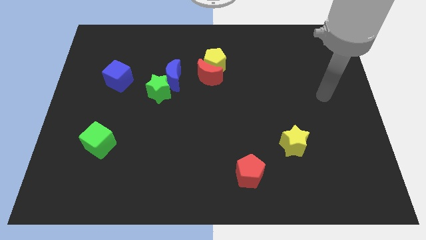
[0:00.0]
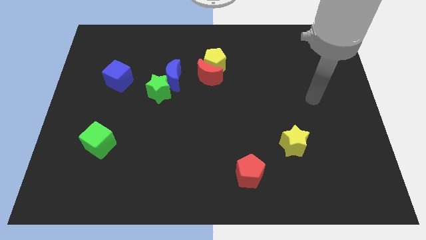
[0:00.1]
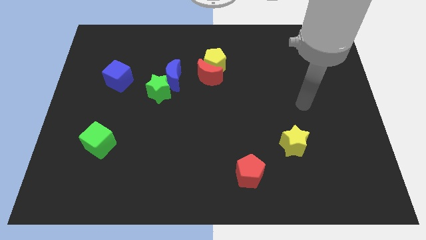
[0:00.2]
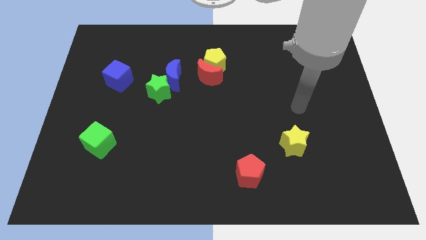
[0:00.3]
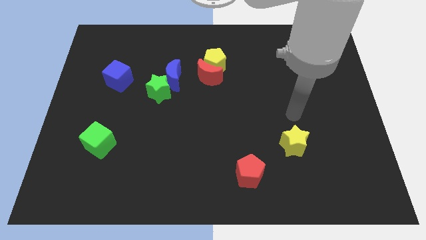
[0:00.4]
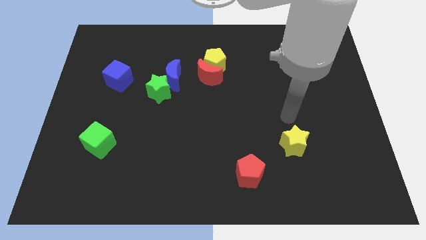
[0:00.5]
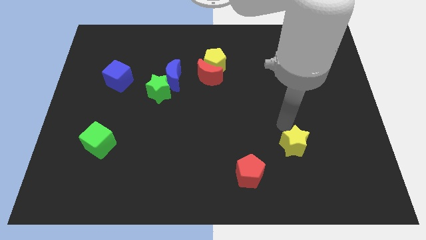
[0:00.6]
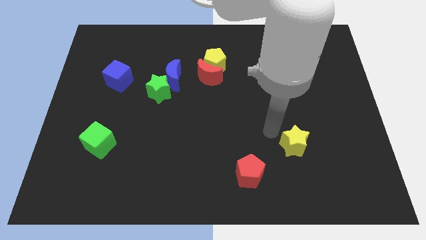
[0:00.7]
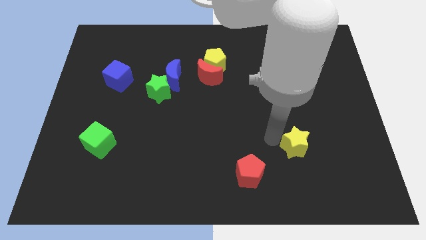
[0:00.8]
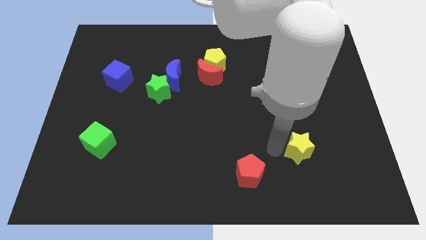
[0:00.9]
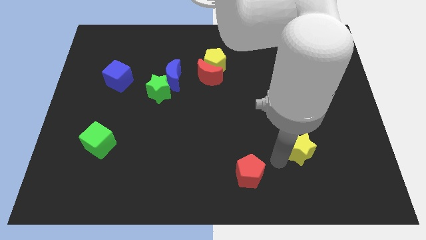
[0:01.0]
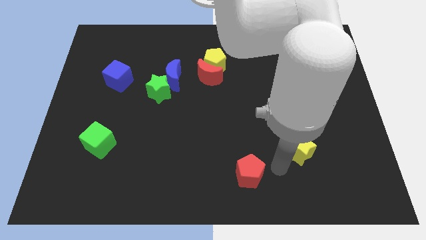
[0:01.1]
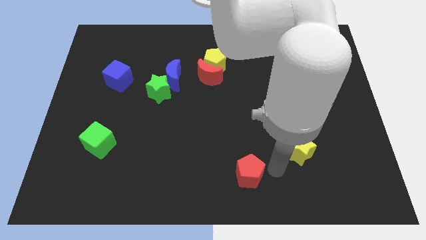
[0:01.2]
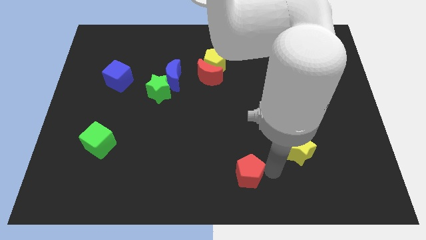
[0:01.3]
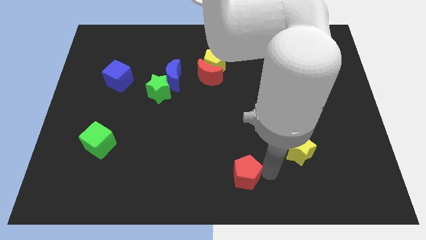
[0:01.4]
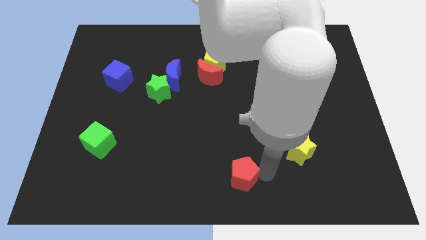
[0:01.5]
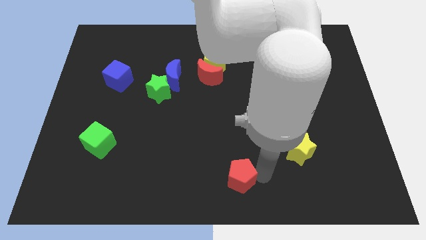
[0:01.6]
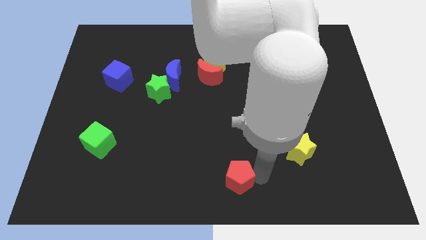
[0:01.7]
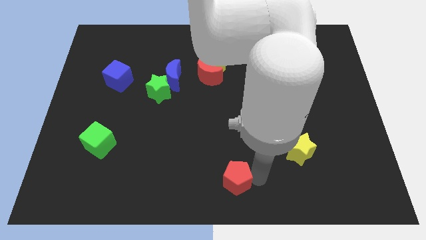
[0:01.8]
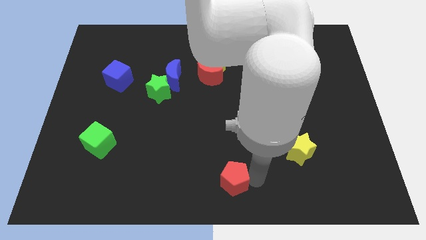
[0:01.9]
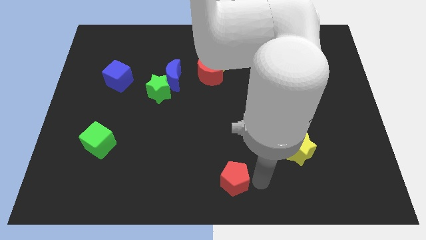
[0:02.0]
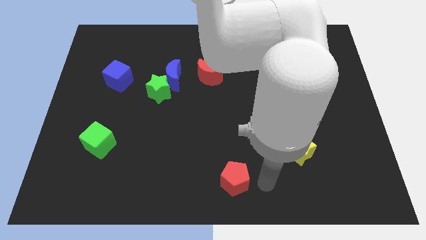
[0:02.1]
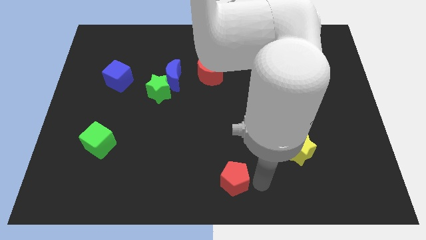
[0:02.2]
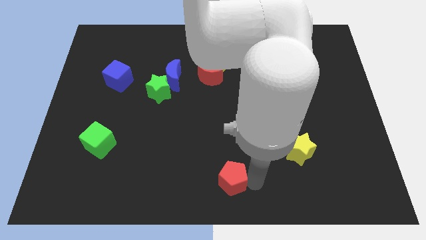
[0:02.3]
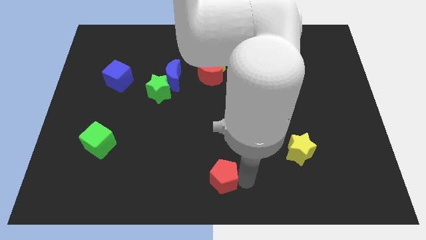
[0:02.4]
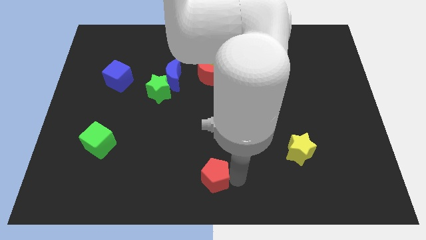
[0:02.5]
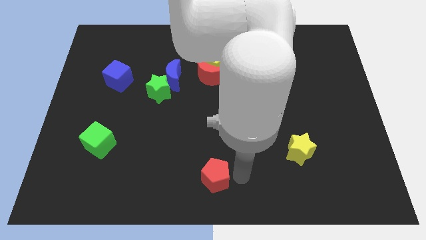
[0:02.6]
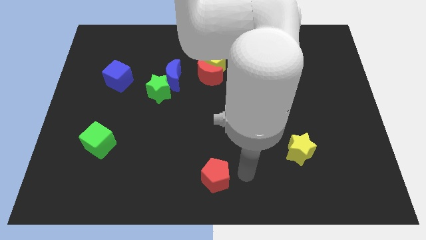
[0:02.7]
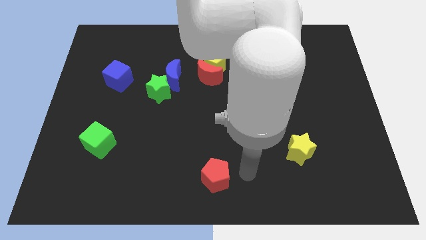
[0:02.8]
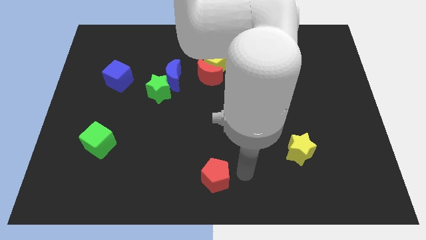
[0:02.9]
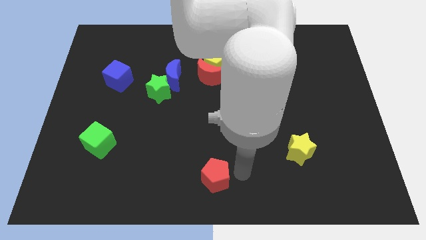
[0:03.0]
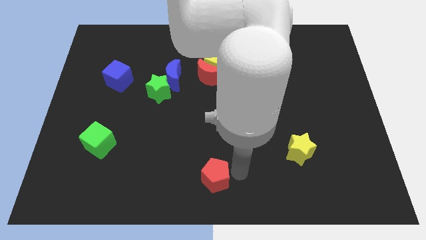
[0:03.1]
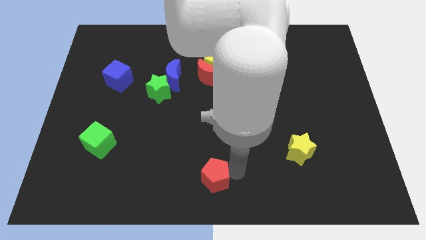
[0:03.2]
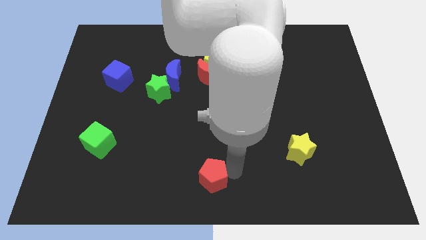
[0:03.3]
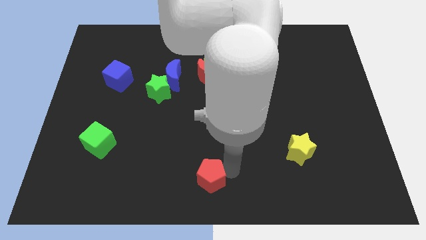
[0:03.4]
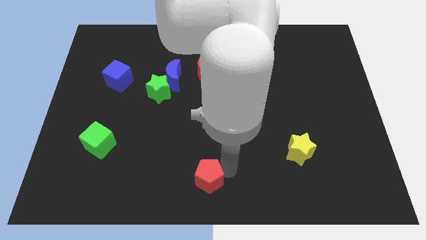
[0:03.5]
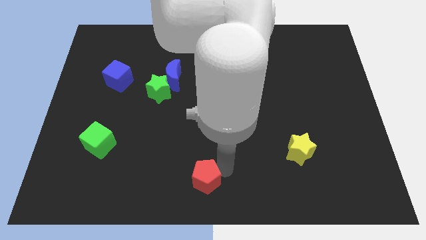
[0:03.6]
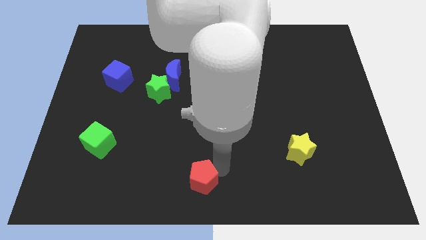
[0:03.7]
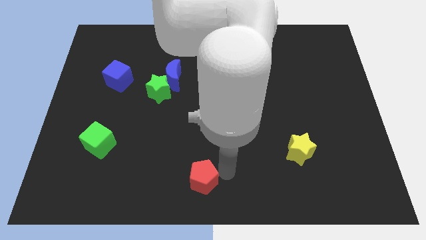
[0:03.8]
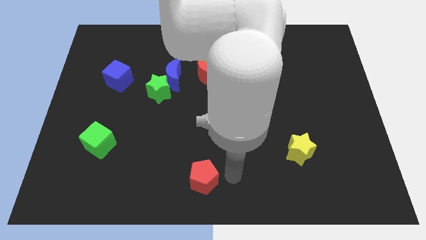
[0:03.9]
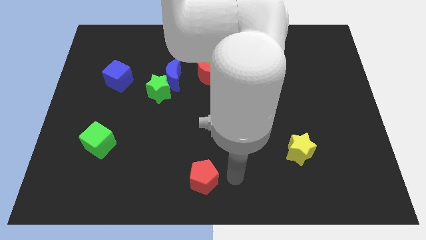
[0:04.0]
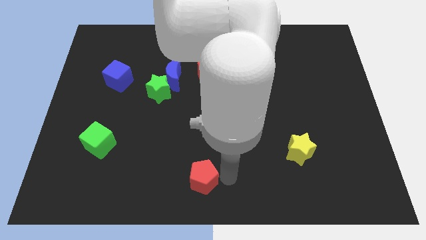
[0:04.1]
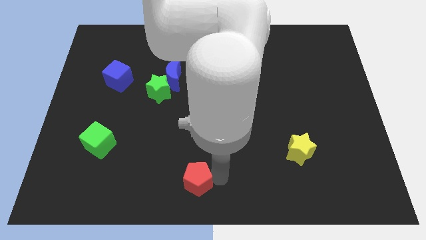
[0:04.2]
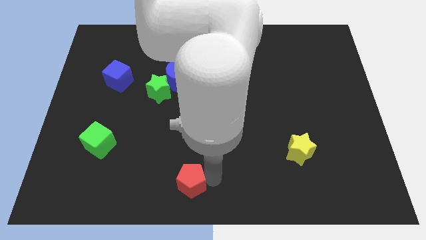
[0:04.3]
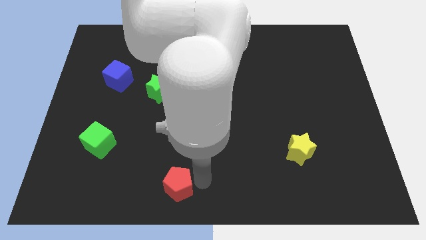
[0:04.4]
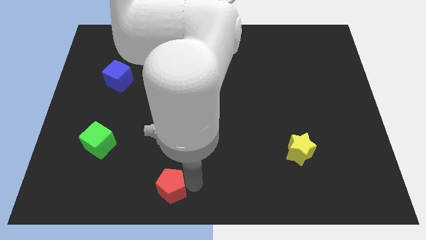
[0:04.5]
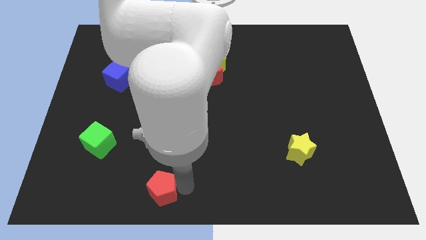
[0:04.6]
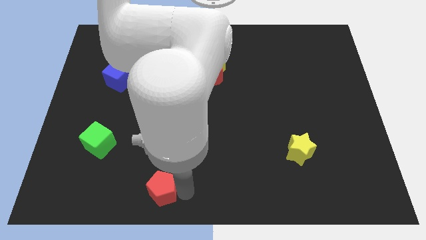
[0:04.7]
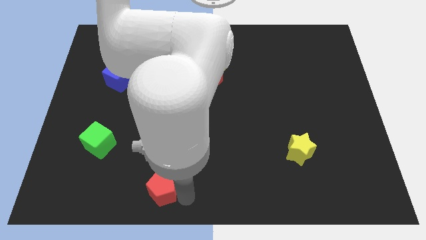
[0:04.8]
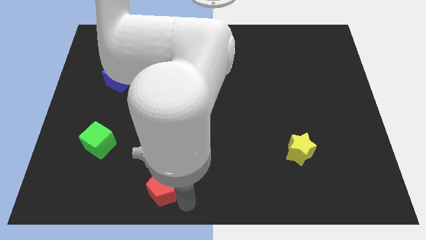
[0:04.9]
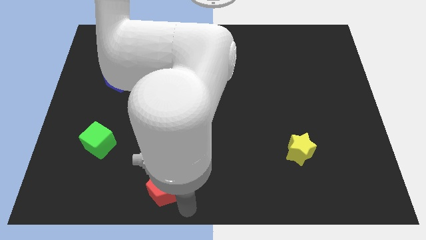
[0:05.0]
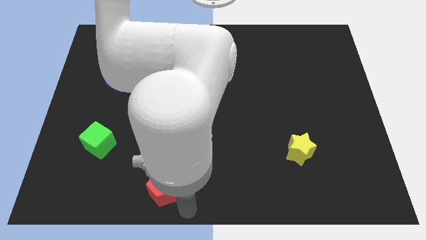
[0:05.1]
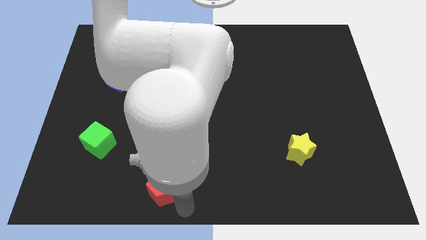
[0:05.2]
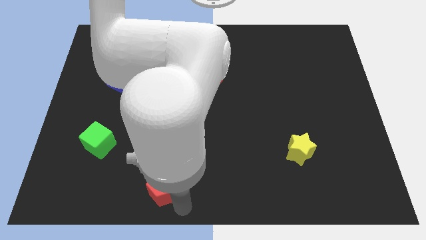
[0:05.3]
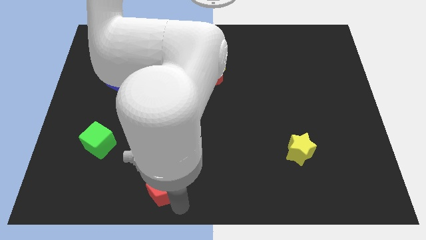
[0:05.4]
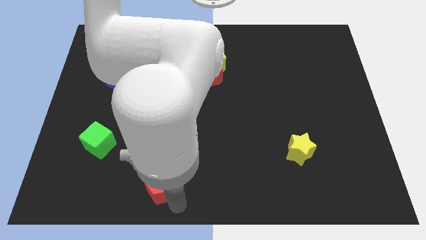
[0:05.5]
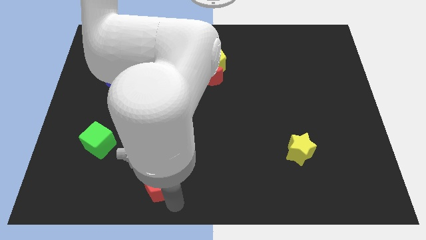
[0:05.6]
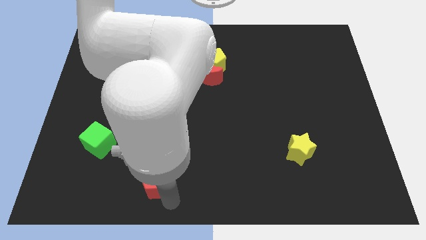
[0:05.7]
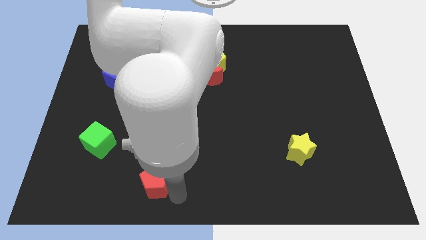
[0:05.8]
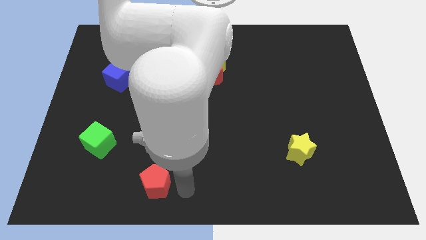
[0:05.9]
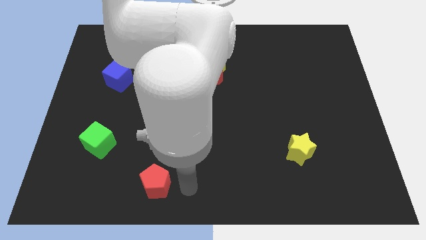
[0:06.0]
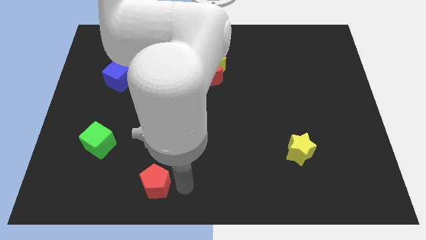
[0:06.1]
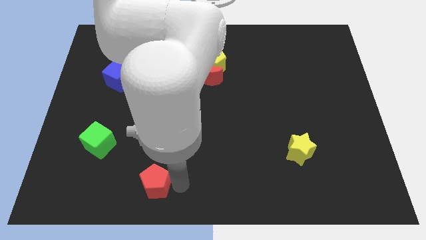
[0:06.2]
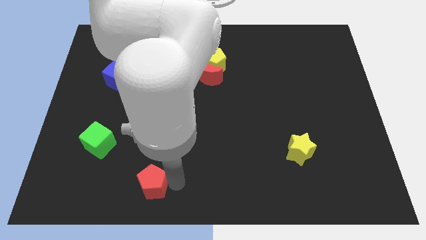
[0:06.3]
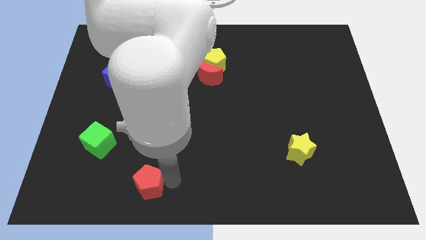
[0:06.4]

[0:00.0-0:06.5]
push the red pentagon left

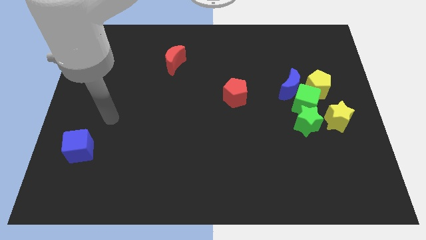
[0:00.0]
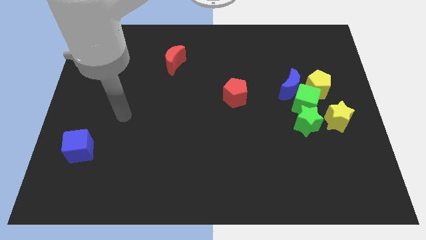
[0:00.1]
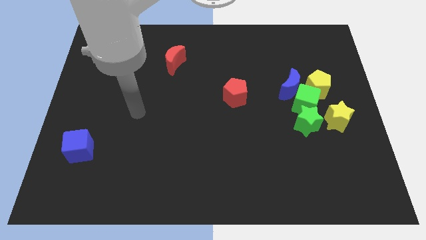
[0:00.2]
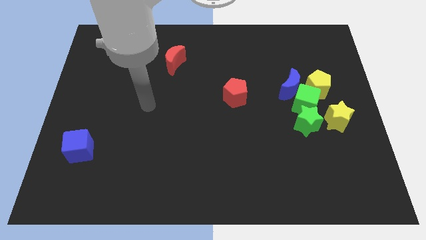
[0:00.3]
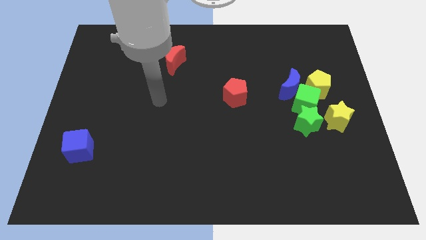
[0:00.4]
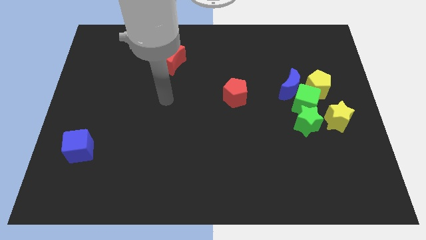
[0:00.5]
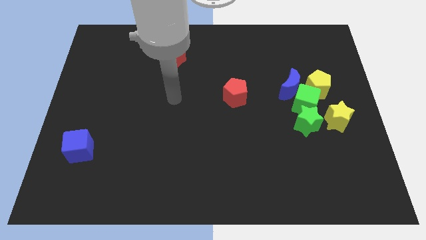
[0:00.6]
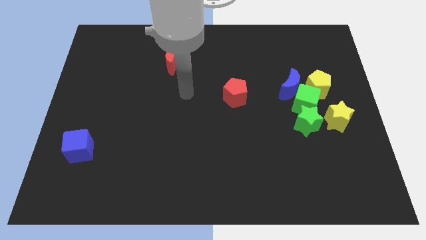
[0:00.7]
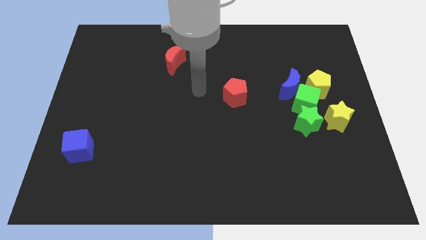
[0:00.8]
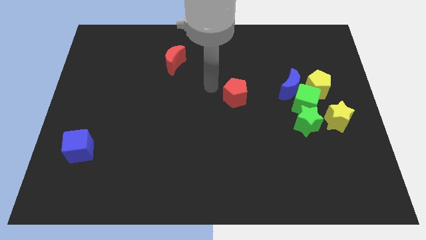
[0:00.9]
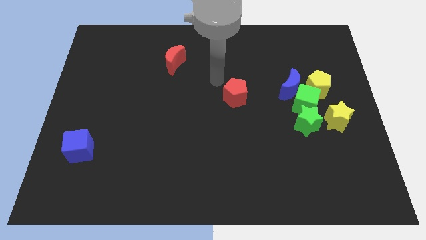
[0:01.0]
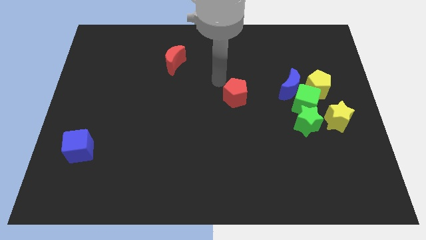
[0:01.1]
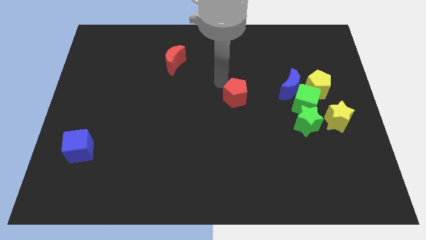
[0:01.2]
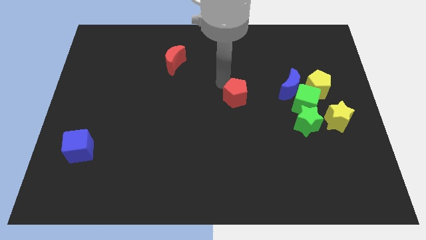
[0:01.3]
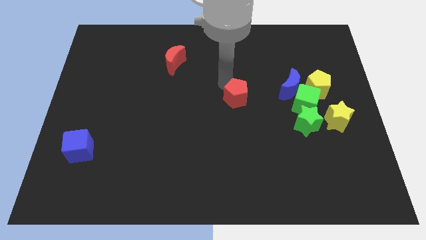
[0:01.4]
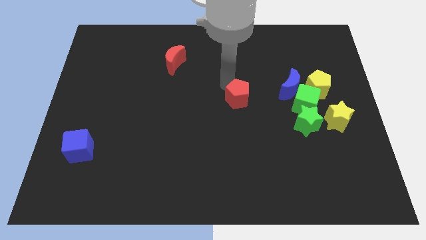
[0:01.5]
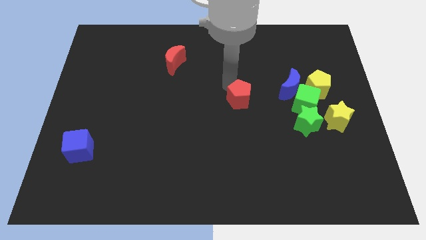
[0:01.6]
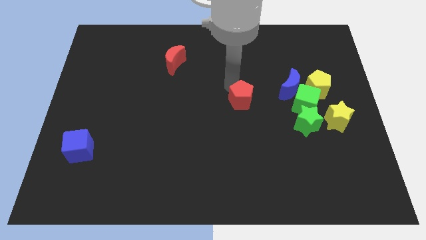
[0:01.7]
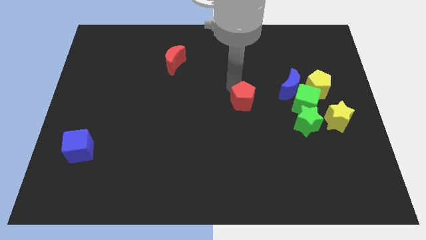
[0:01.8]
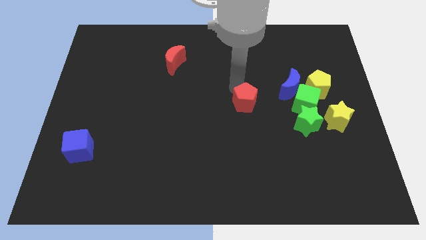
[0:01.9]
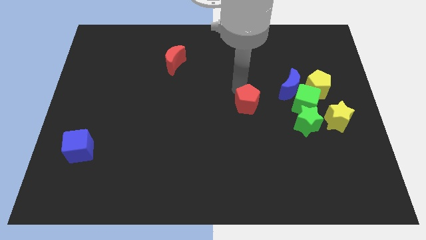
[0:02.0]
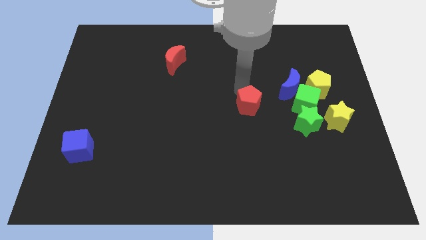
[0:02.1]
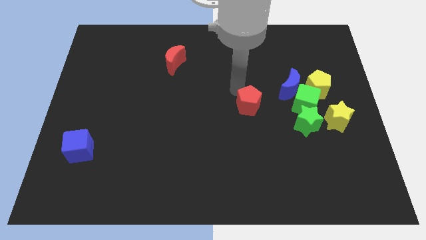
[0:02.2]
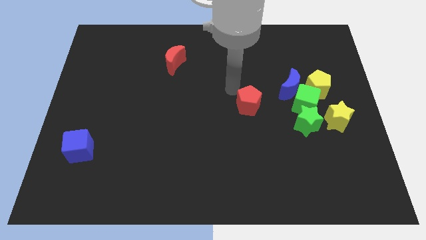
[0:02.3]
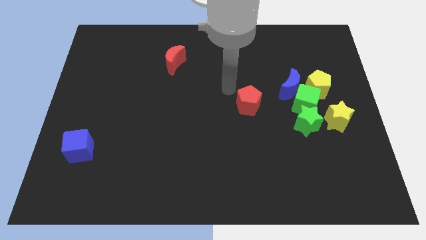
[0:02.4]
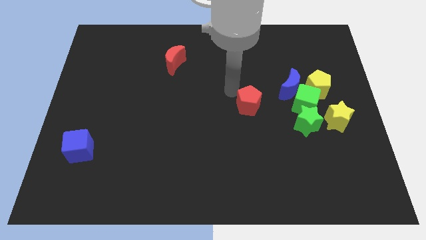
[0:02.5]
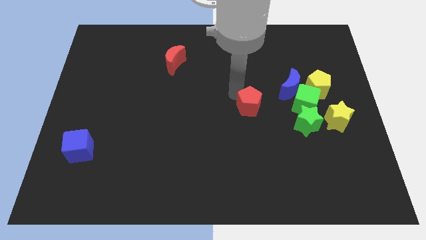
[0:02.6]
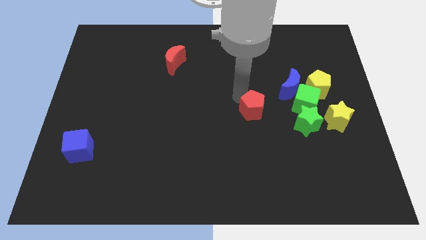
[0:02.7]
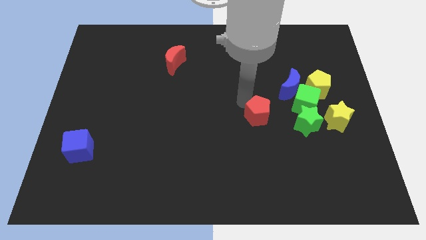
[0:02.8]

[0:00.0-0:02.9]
push the red pentagon a bit diagonally downwards and right
